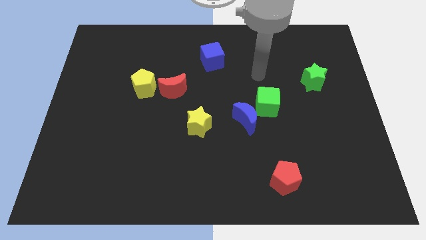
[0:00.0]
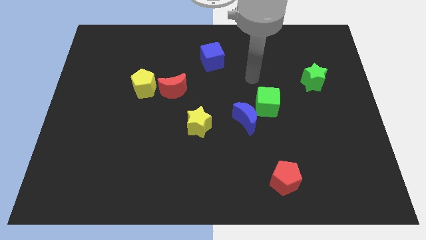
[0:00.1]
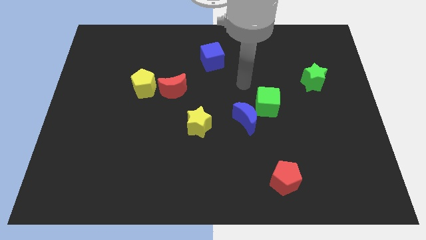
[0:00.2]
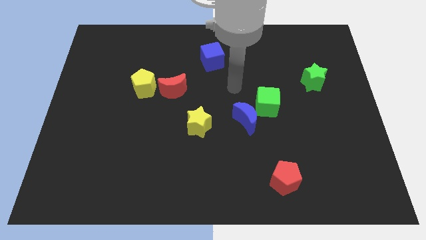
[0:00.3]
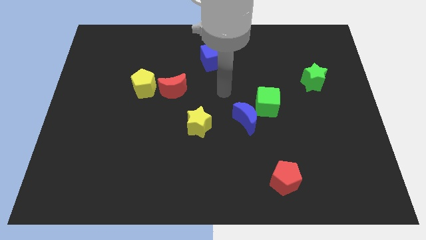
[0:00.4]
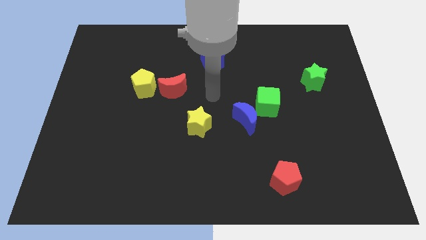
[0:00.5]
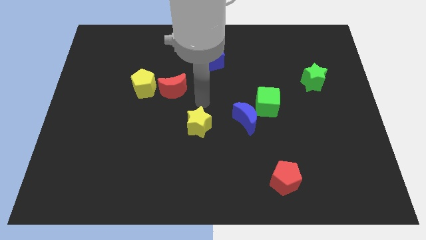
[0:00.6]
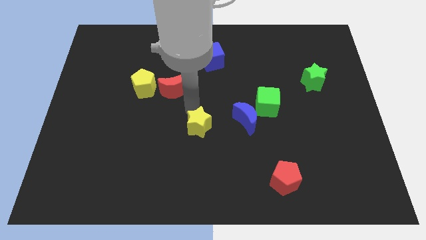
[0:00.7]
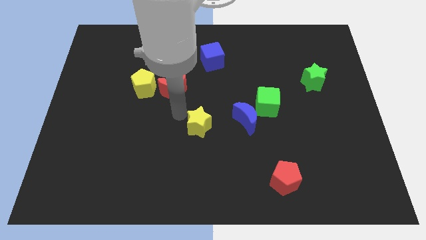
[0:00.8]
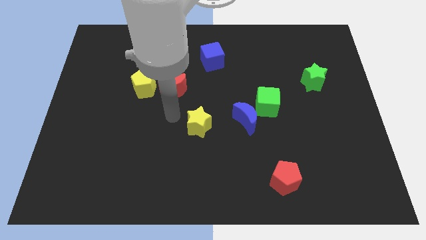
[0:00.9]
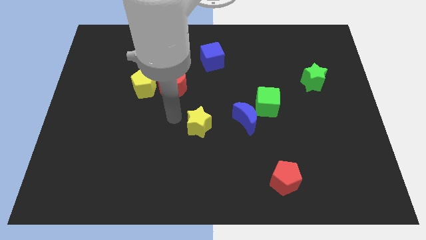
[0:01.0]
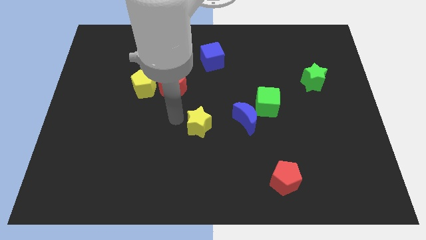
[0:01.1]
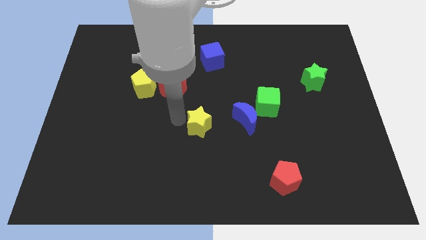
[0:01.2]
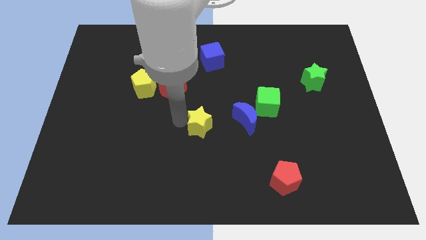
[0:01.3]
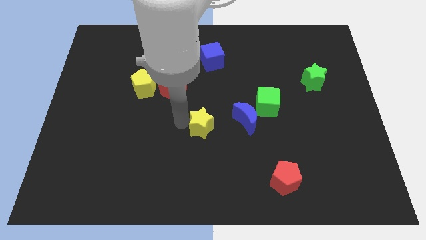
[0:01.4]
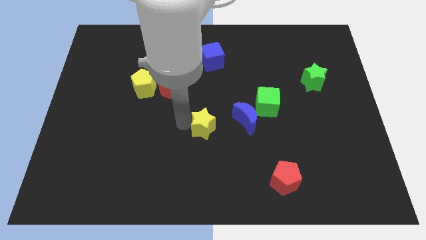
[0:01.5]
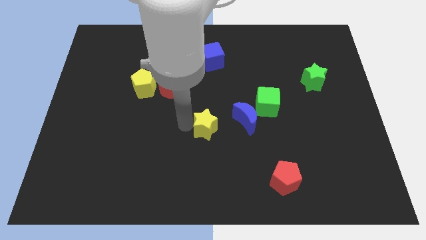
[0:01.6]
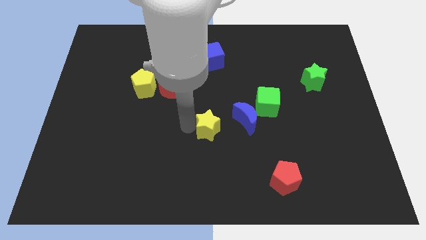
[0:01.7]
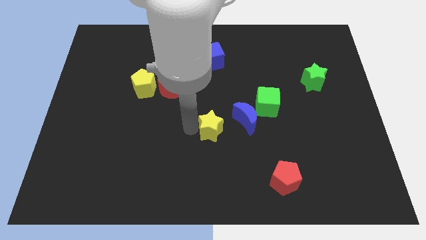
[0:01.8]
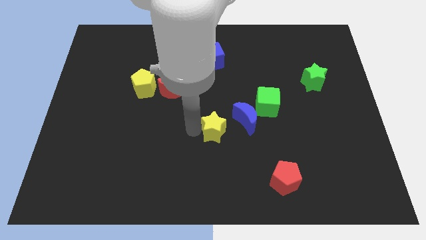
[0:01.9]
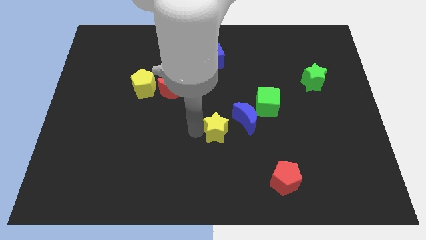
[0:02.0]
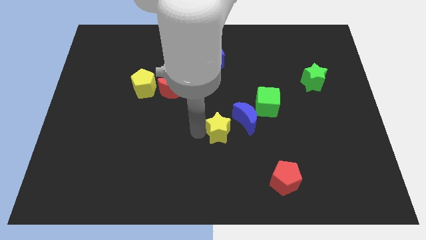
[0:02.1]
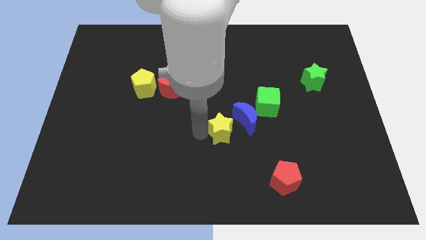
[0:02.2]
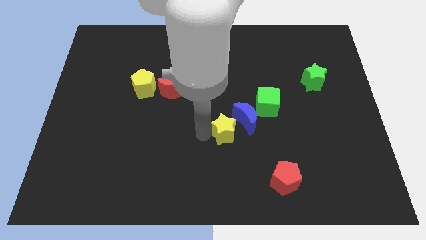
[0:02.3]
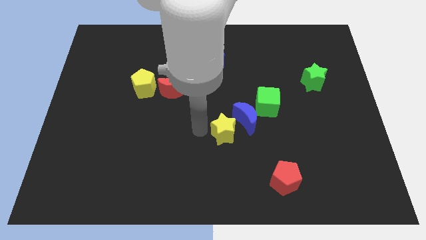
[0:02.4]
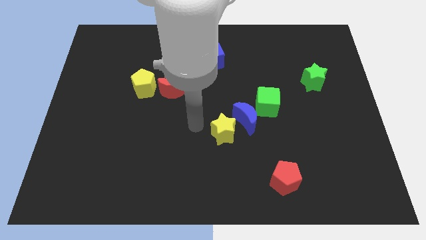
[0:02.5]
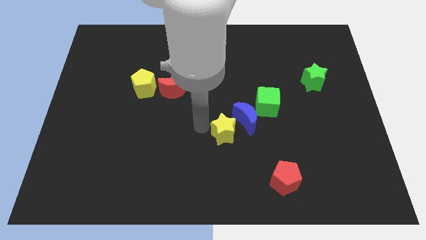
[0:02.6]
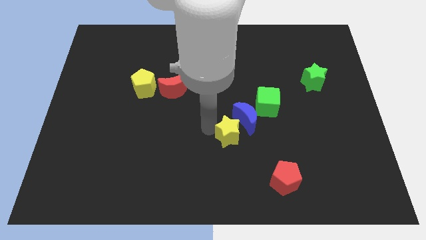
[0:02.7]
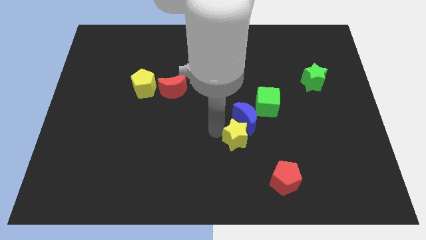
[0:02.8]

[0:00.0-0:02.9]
slide the yellow star to the right slightly

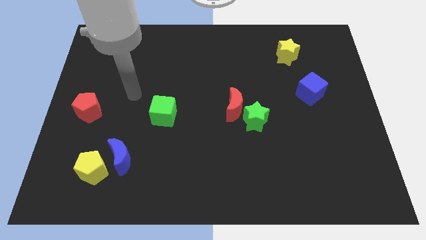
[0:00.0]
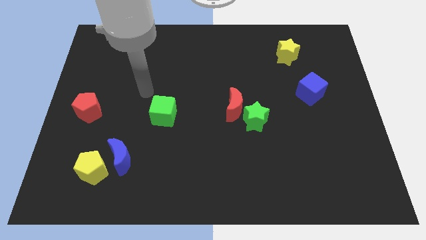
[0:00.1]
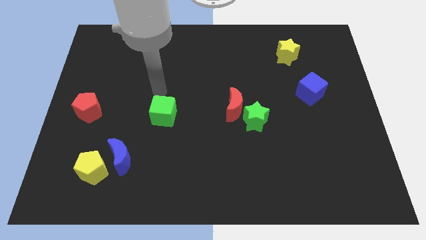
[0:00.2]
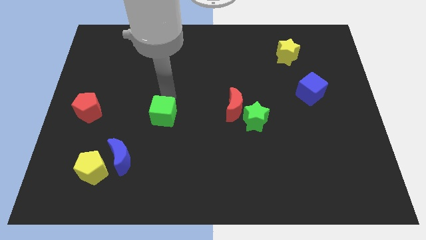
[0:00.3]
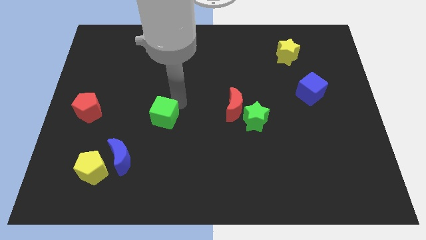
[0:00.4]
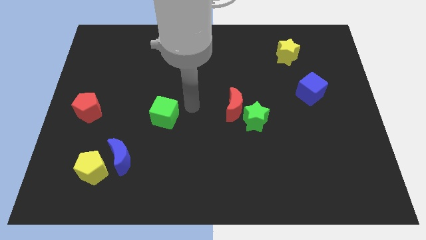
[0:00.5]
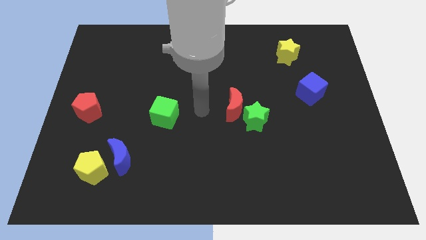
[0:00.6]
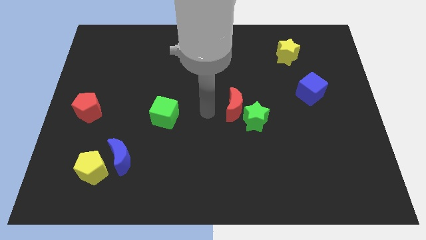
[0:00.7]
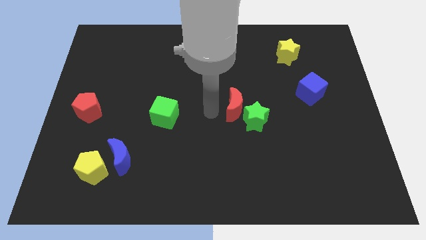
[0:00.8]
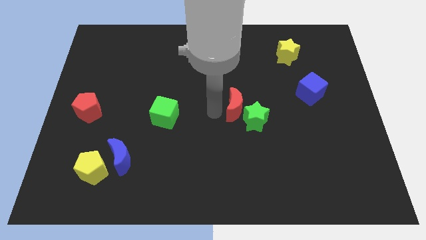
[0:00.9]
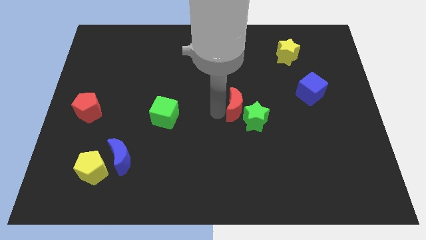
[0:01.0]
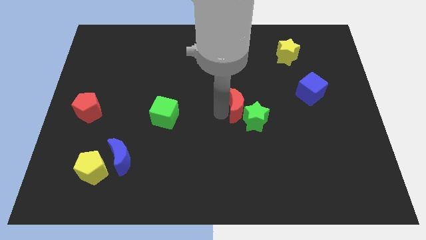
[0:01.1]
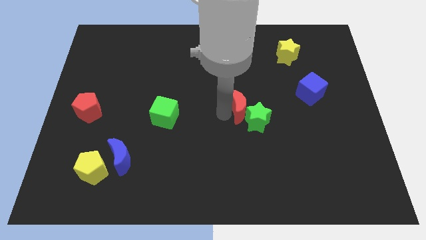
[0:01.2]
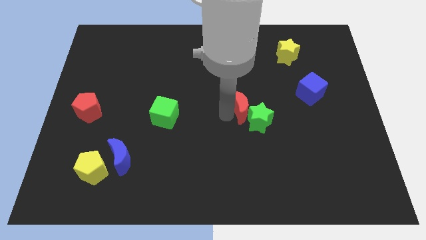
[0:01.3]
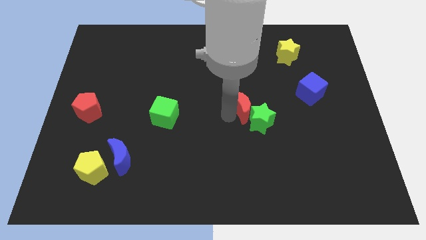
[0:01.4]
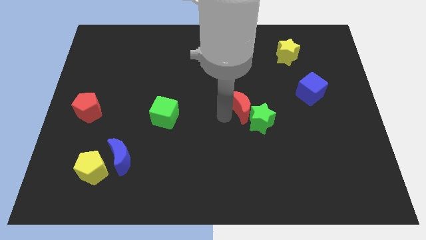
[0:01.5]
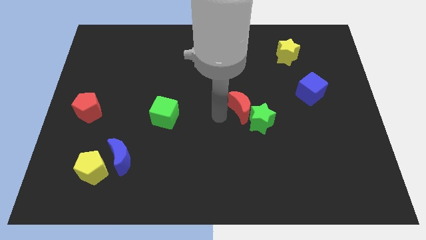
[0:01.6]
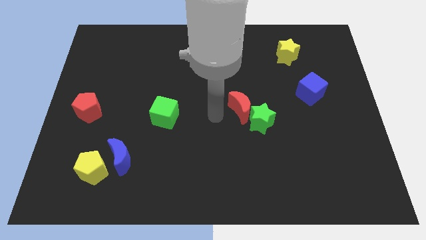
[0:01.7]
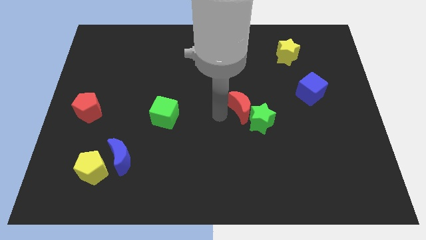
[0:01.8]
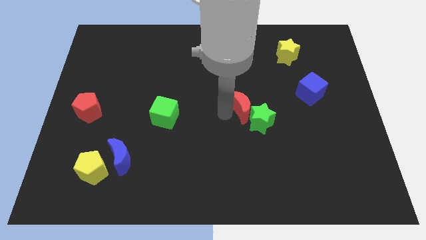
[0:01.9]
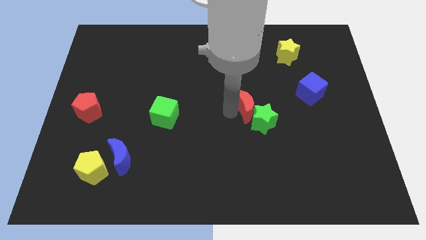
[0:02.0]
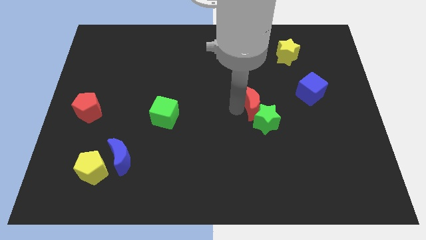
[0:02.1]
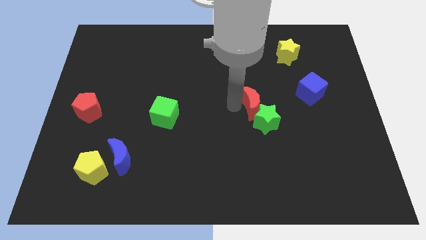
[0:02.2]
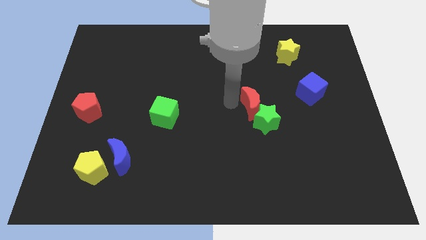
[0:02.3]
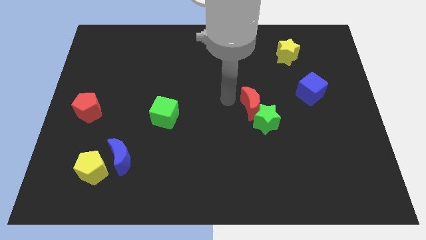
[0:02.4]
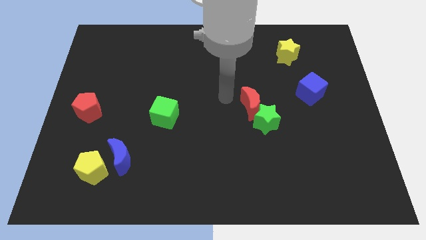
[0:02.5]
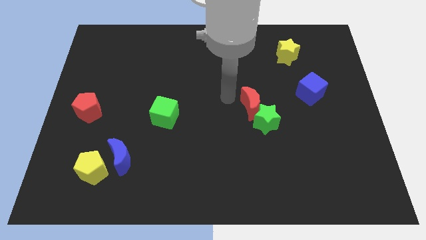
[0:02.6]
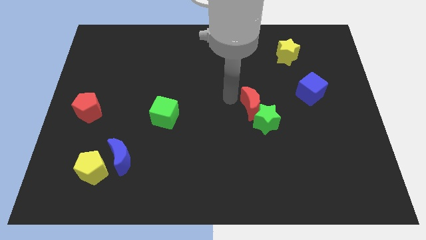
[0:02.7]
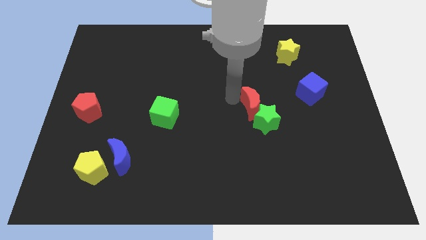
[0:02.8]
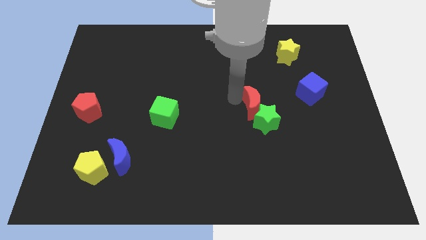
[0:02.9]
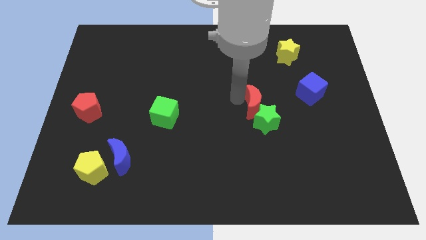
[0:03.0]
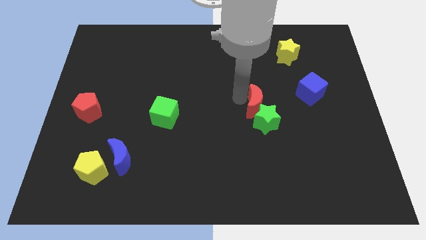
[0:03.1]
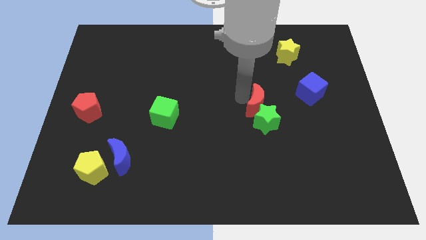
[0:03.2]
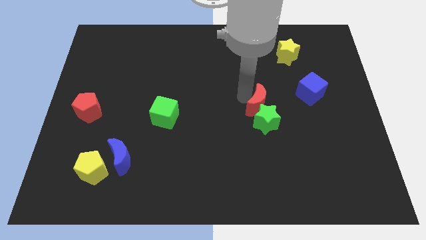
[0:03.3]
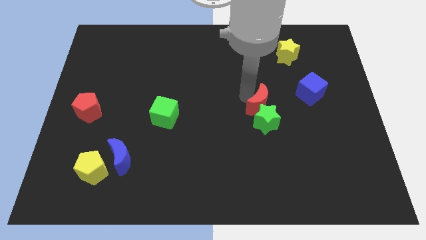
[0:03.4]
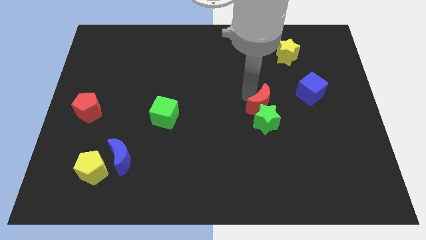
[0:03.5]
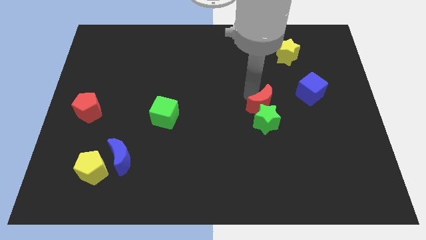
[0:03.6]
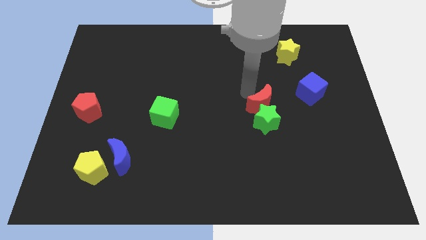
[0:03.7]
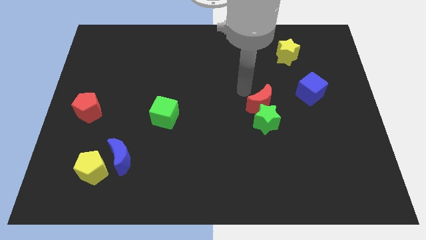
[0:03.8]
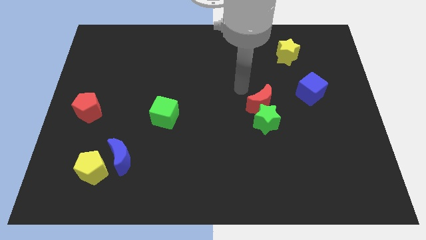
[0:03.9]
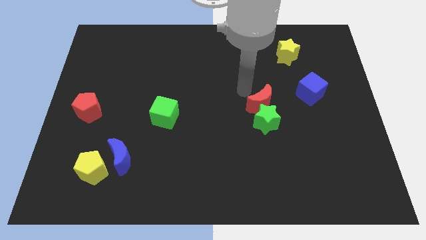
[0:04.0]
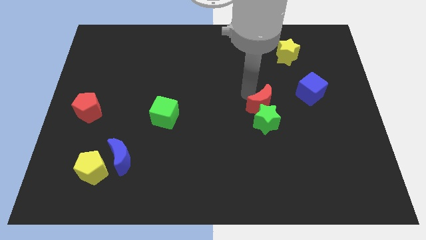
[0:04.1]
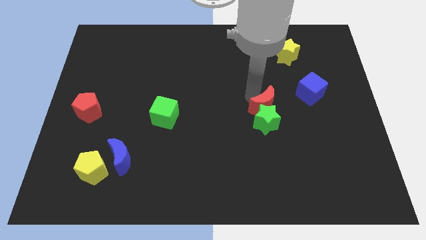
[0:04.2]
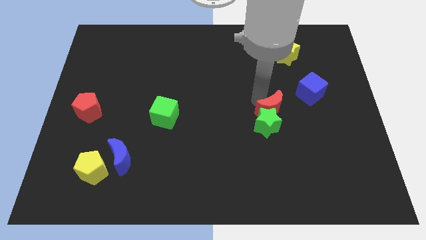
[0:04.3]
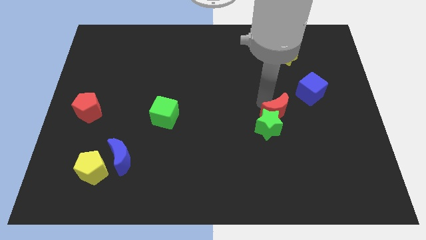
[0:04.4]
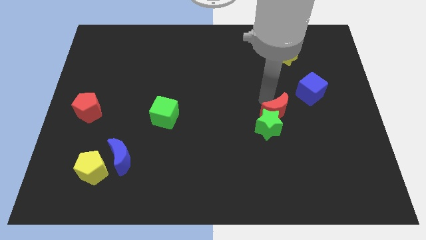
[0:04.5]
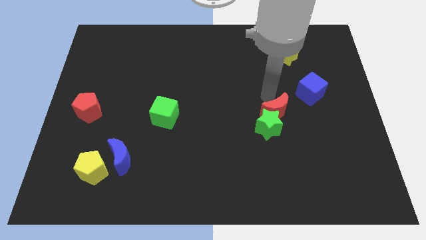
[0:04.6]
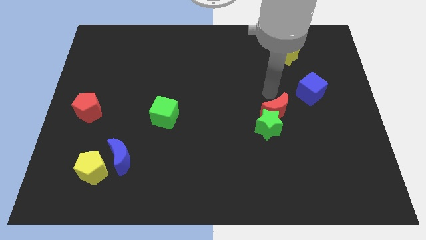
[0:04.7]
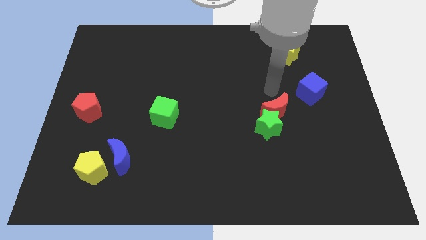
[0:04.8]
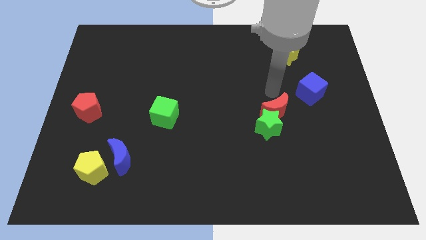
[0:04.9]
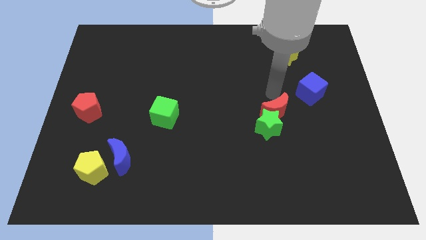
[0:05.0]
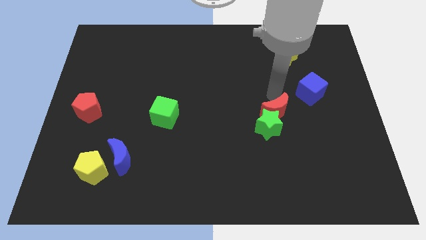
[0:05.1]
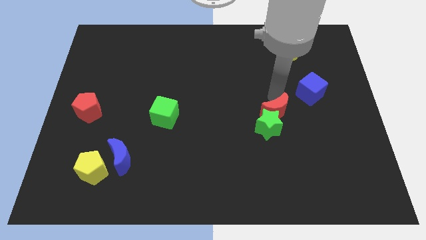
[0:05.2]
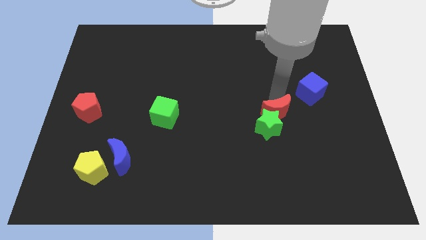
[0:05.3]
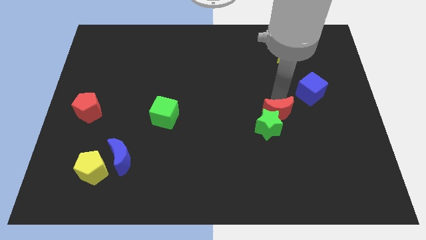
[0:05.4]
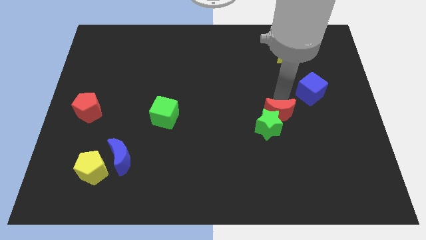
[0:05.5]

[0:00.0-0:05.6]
push the red moon a bit downwards and right
